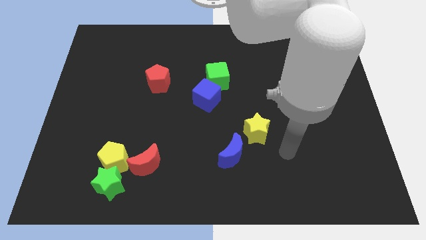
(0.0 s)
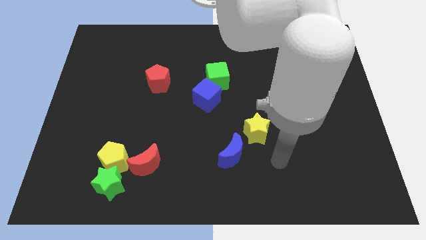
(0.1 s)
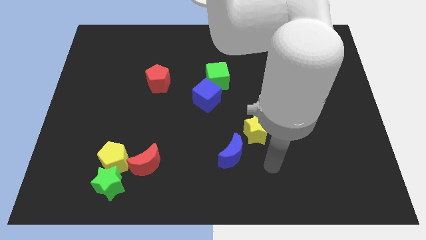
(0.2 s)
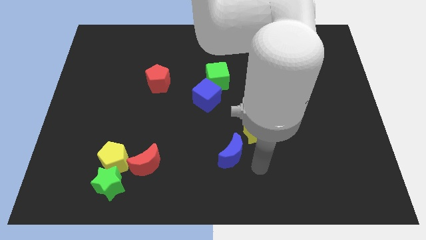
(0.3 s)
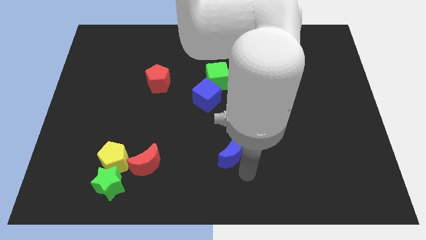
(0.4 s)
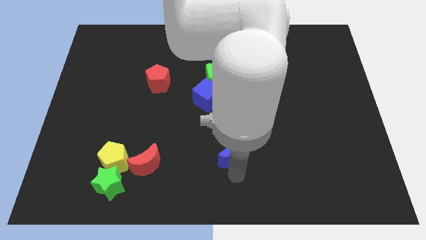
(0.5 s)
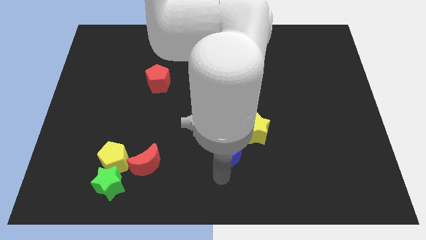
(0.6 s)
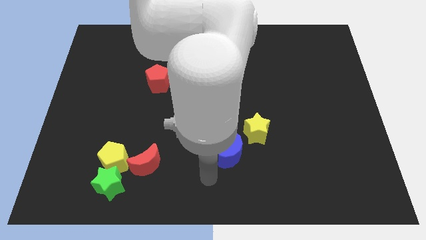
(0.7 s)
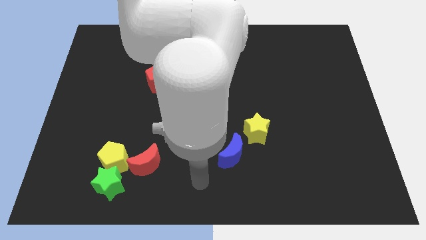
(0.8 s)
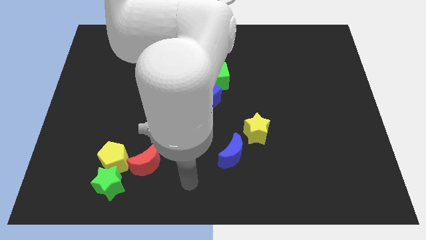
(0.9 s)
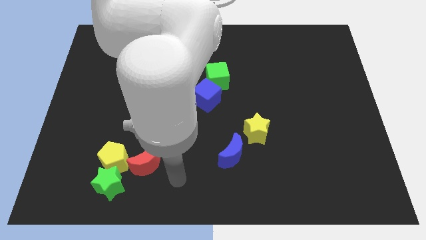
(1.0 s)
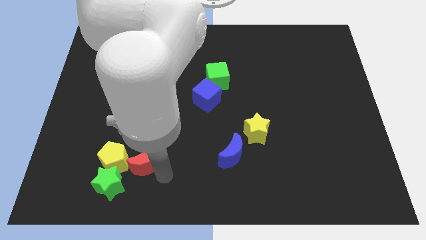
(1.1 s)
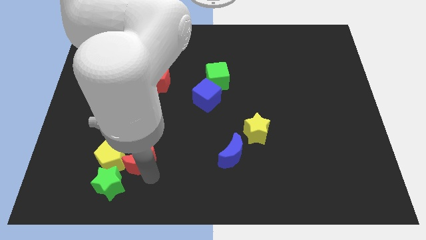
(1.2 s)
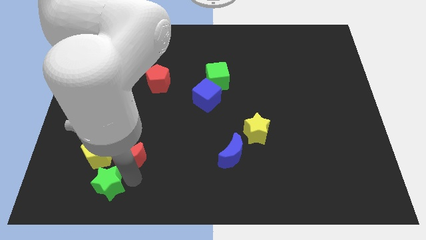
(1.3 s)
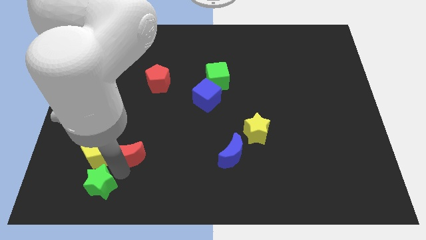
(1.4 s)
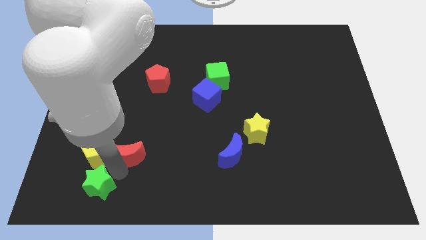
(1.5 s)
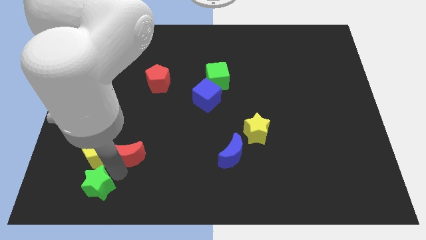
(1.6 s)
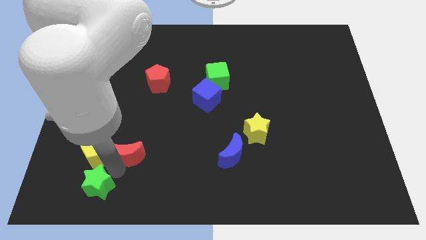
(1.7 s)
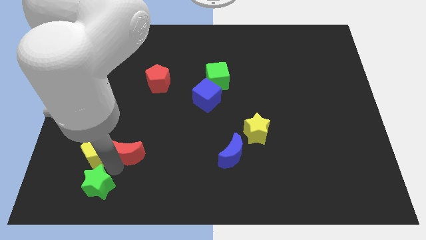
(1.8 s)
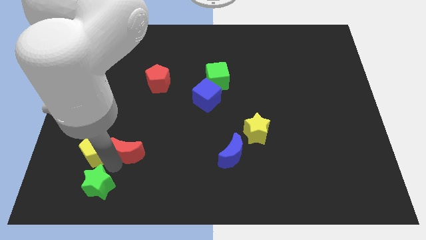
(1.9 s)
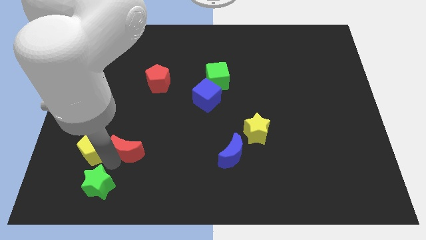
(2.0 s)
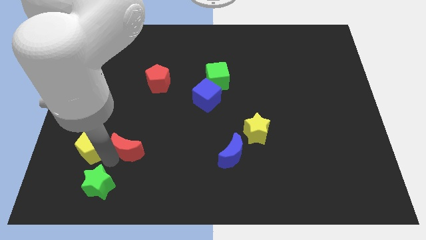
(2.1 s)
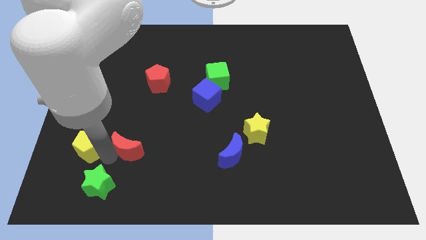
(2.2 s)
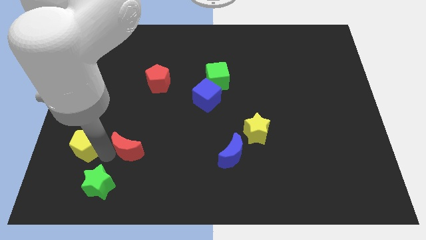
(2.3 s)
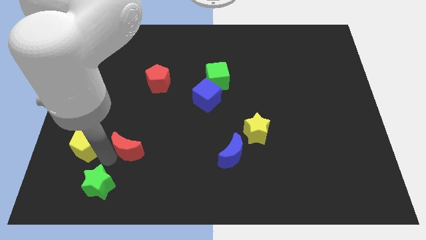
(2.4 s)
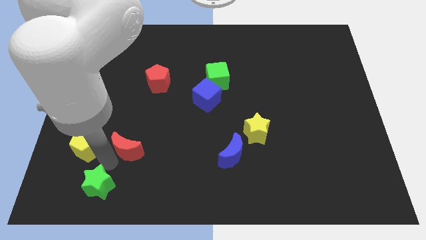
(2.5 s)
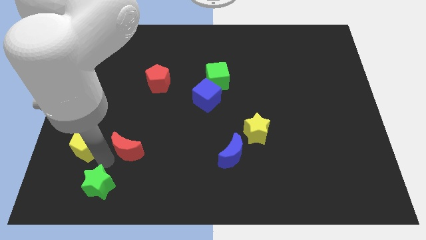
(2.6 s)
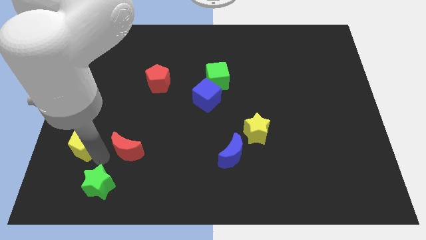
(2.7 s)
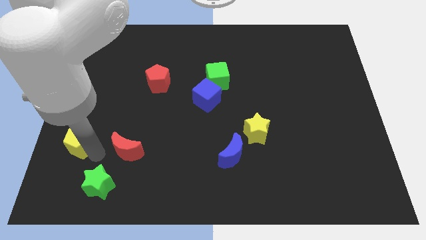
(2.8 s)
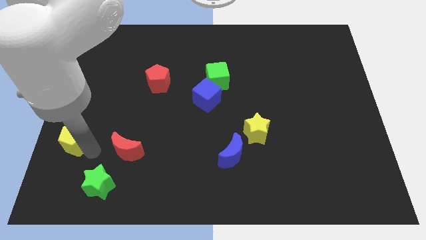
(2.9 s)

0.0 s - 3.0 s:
separate the yellow pentagon from the green star and red moon

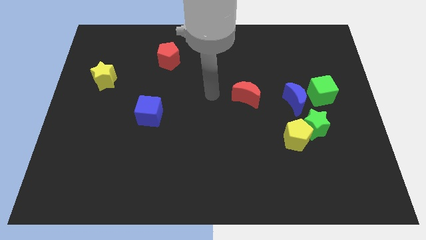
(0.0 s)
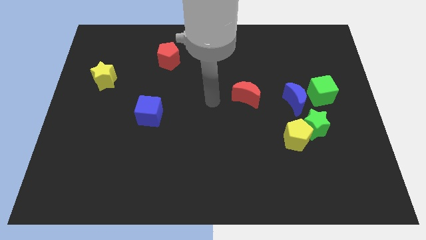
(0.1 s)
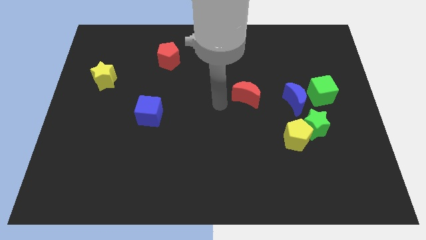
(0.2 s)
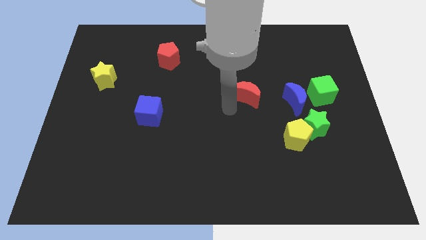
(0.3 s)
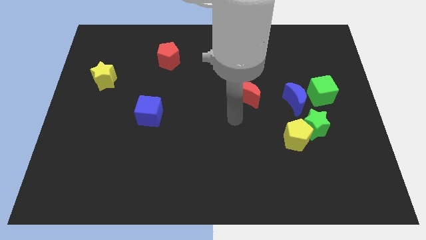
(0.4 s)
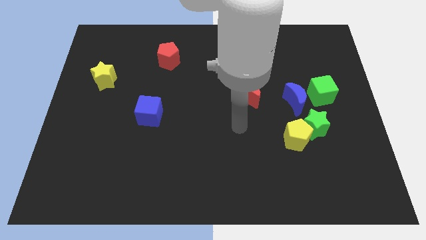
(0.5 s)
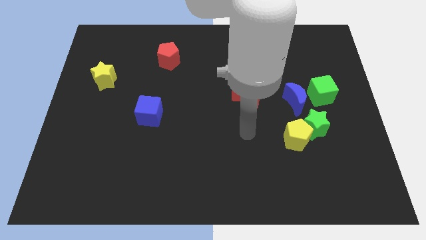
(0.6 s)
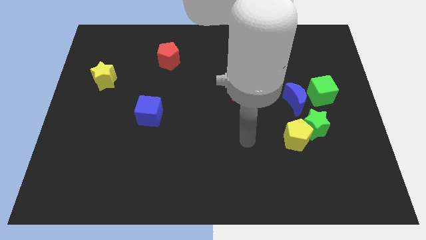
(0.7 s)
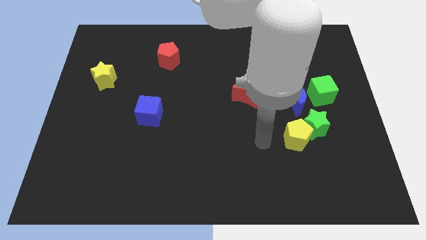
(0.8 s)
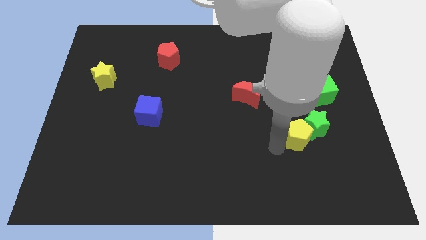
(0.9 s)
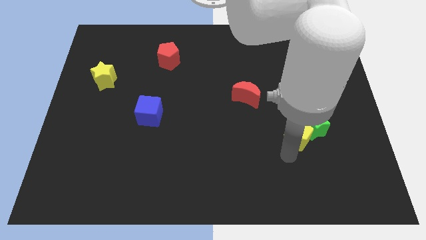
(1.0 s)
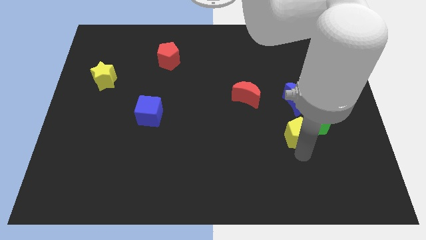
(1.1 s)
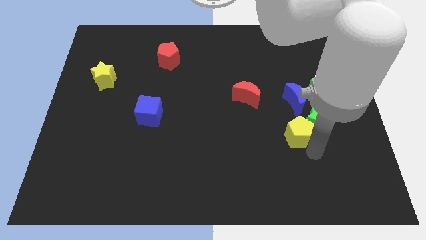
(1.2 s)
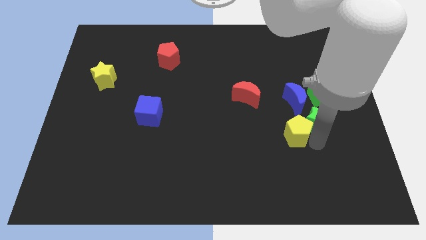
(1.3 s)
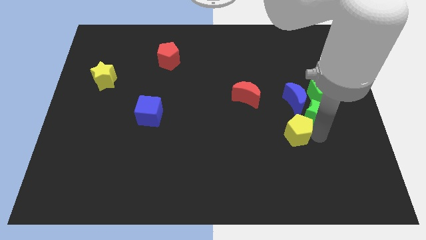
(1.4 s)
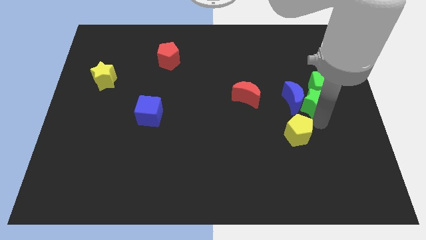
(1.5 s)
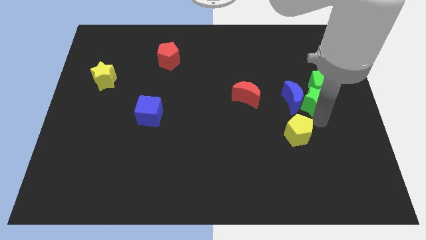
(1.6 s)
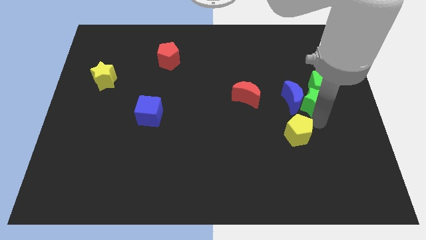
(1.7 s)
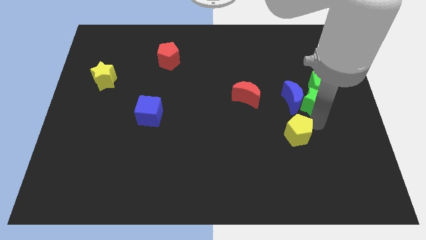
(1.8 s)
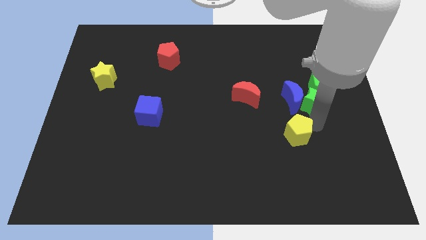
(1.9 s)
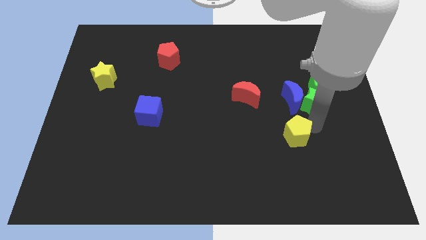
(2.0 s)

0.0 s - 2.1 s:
pull the yellow pentagon apart from the green star

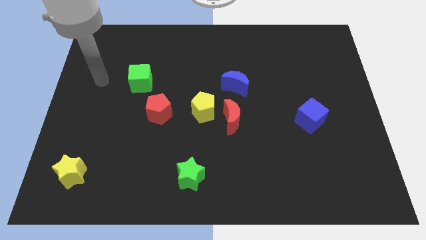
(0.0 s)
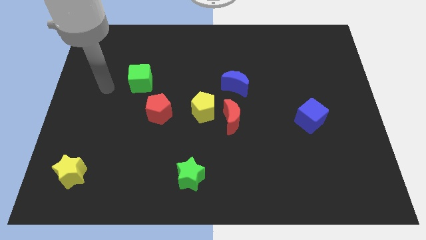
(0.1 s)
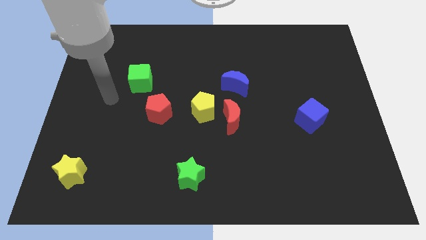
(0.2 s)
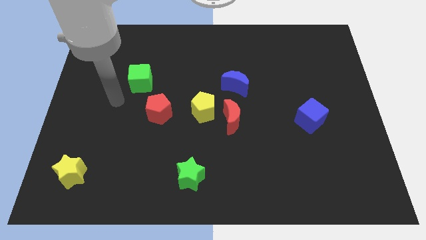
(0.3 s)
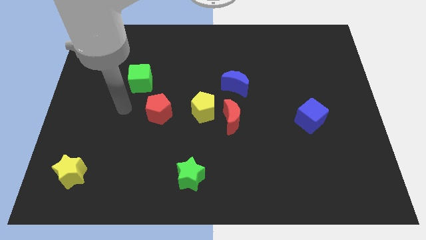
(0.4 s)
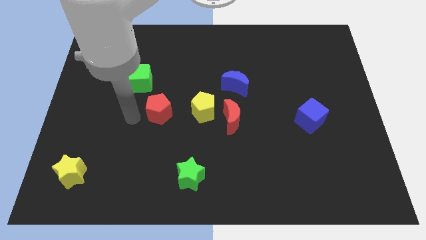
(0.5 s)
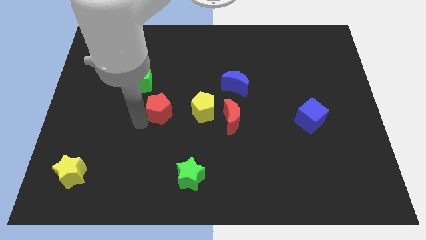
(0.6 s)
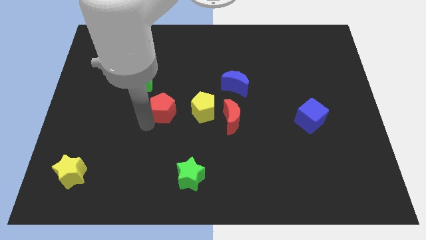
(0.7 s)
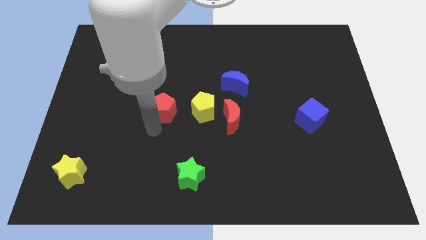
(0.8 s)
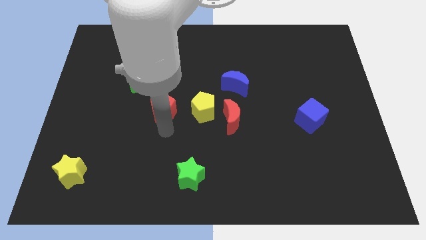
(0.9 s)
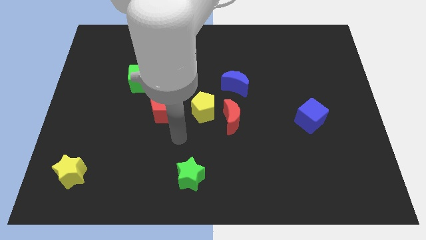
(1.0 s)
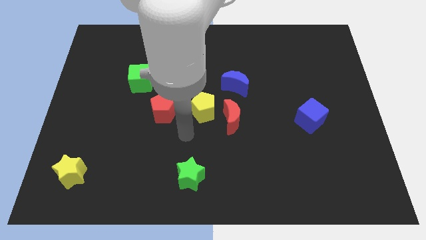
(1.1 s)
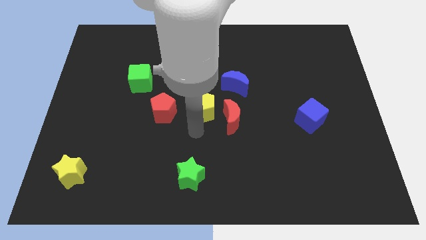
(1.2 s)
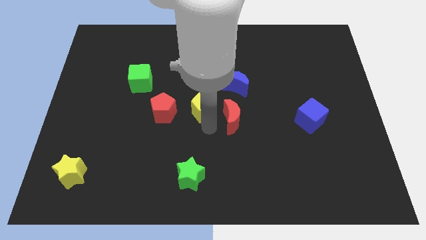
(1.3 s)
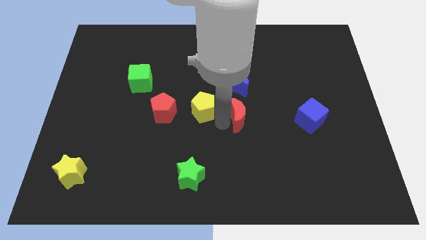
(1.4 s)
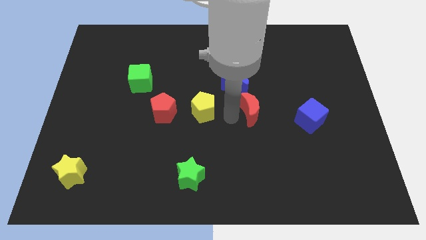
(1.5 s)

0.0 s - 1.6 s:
pull the yellow pentagon apart from the red moon

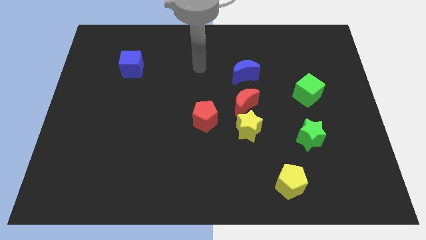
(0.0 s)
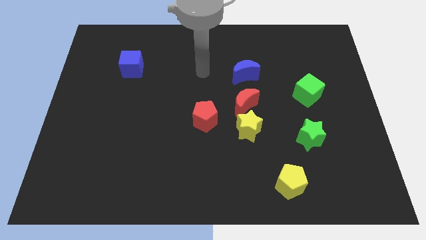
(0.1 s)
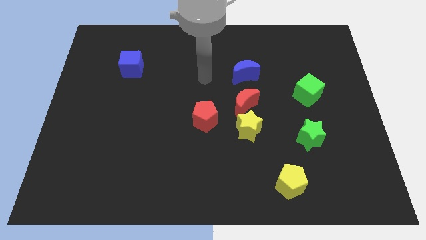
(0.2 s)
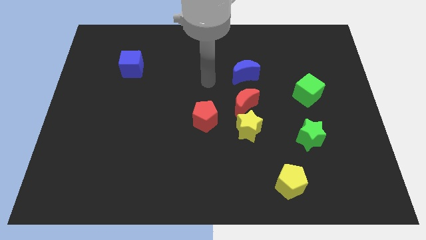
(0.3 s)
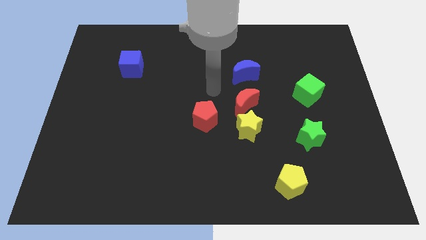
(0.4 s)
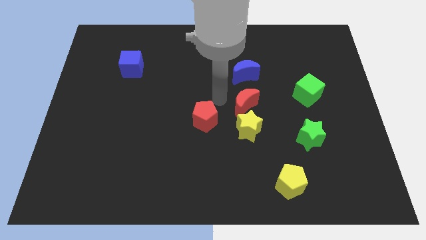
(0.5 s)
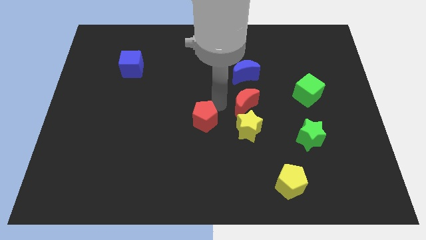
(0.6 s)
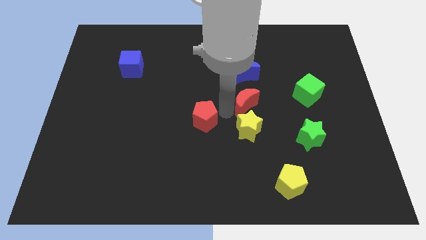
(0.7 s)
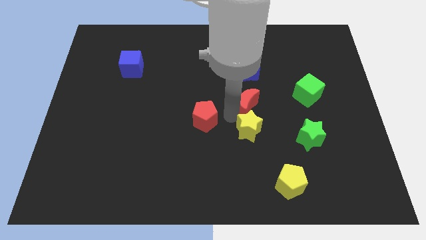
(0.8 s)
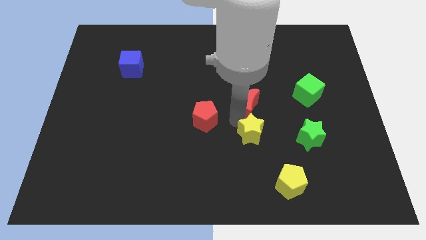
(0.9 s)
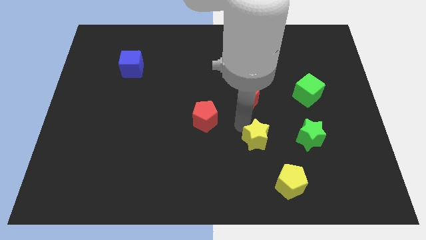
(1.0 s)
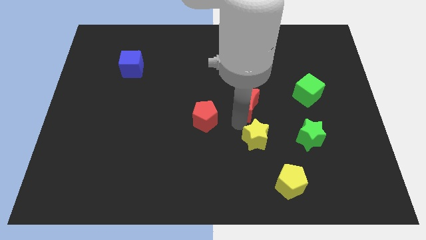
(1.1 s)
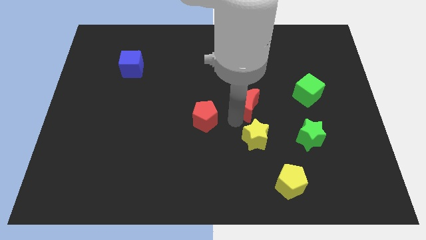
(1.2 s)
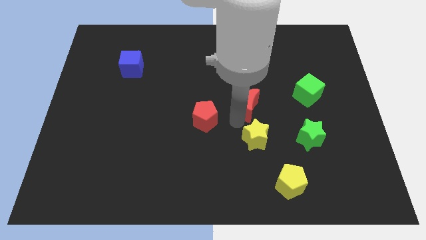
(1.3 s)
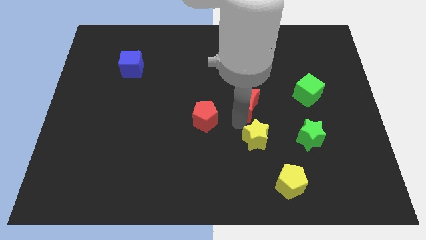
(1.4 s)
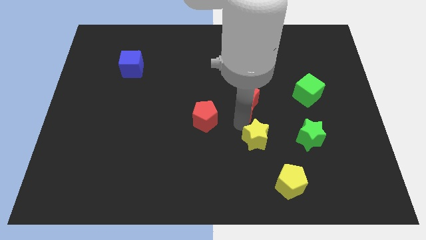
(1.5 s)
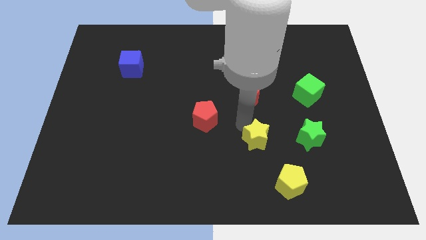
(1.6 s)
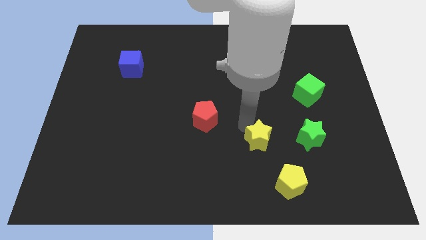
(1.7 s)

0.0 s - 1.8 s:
pull the yellow star apart from the red moon and red pentagon

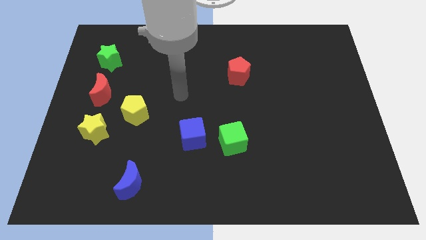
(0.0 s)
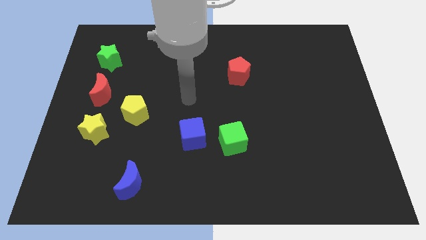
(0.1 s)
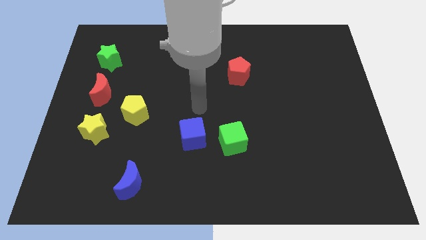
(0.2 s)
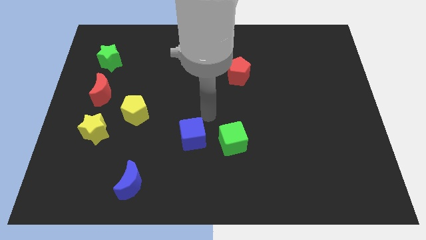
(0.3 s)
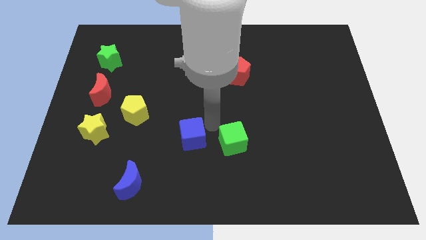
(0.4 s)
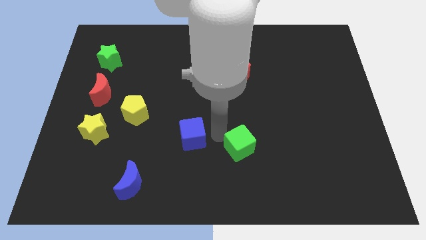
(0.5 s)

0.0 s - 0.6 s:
separate the blue cube from the green cube

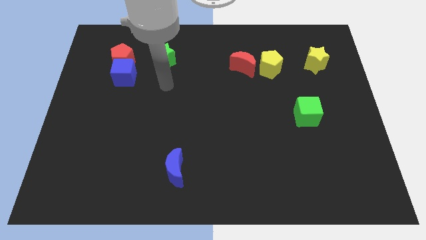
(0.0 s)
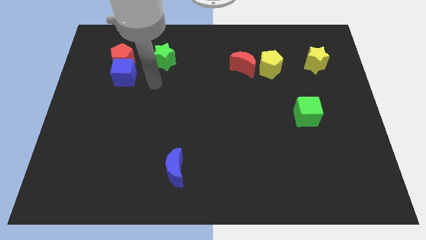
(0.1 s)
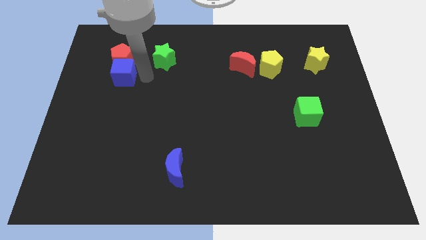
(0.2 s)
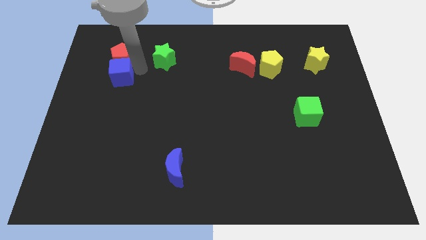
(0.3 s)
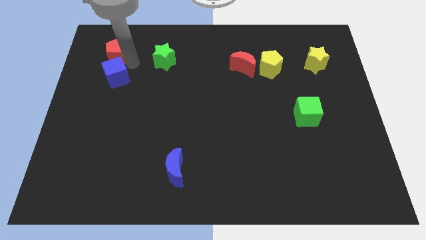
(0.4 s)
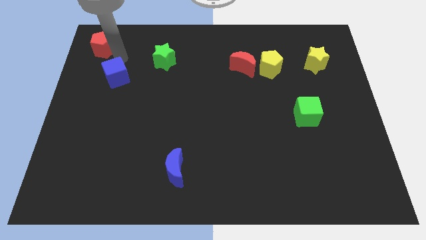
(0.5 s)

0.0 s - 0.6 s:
pull the blue cube apart from the red pentagon
